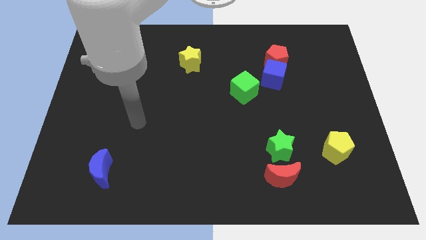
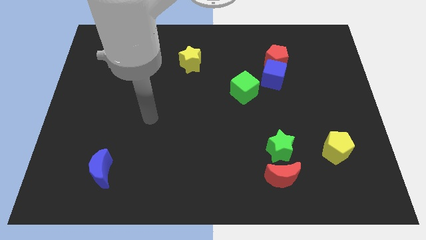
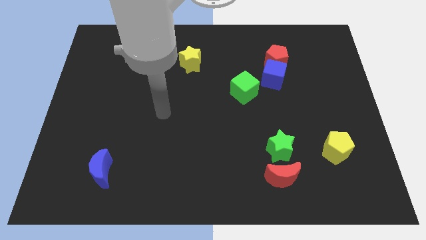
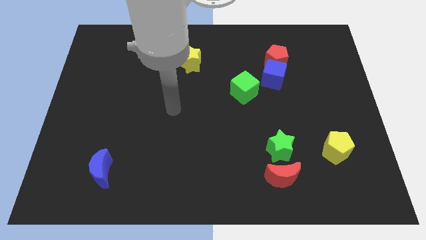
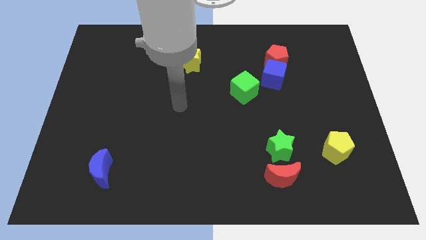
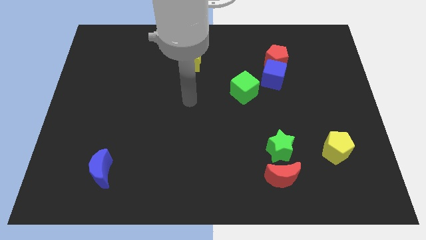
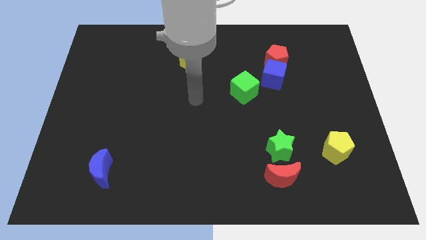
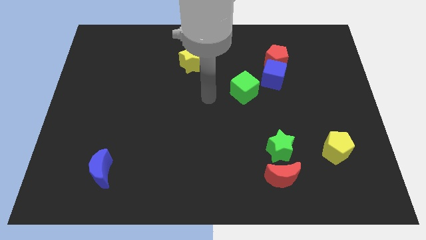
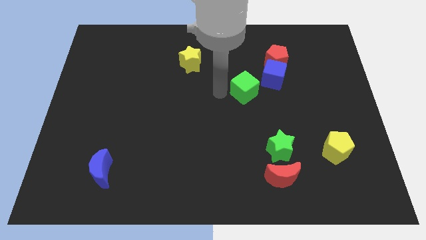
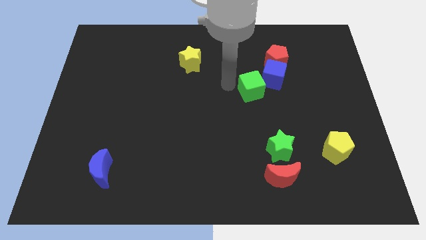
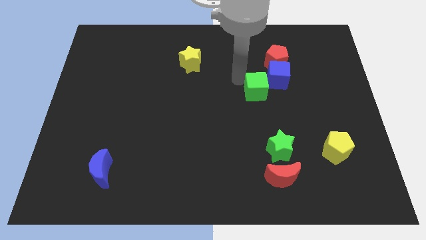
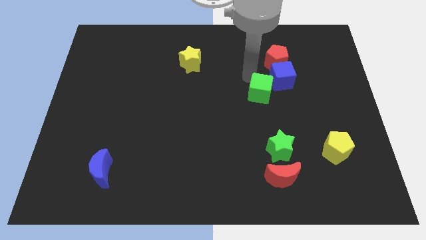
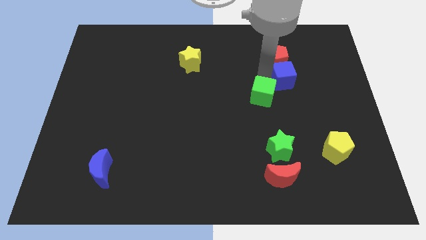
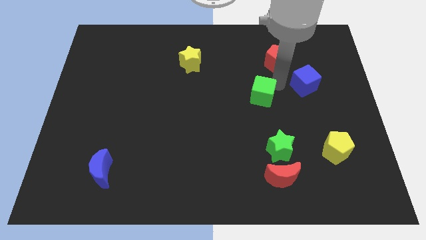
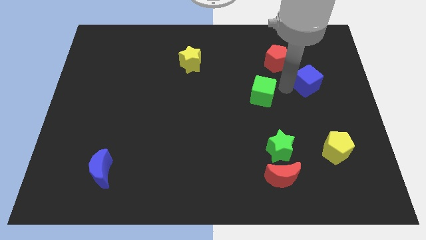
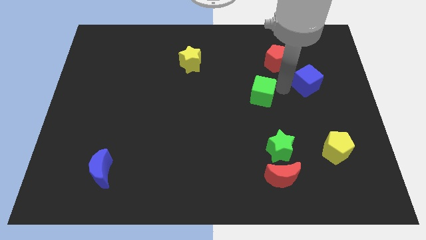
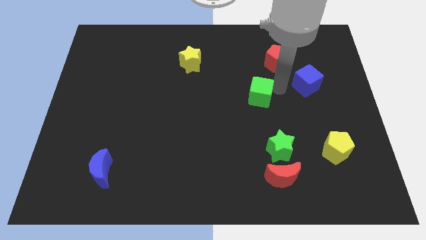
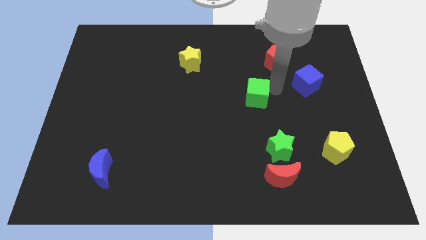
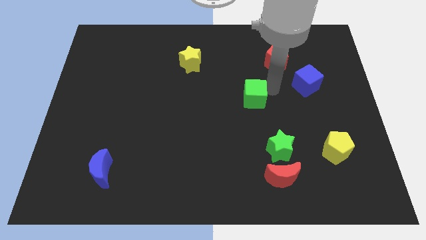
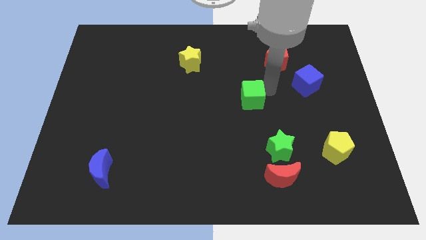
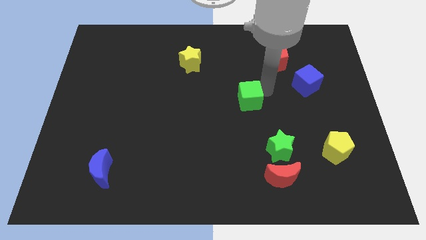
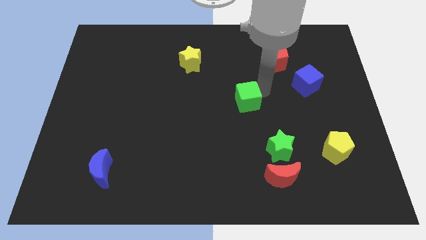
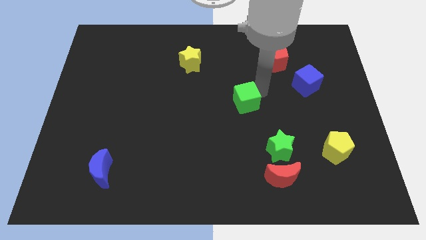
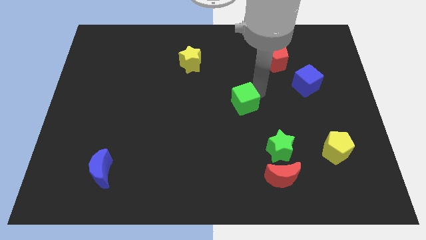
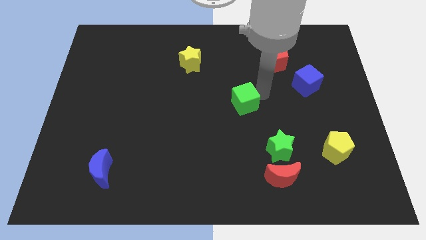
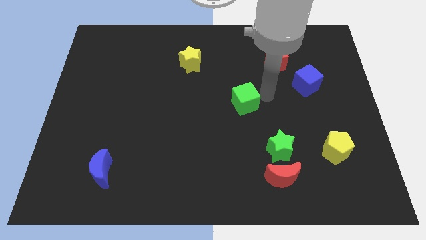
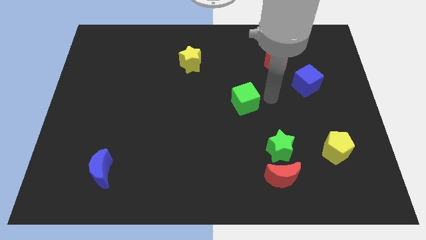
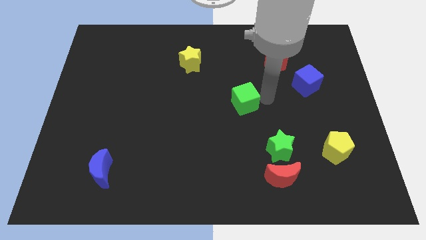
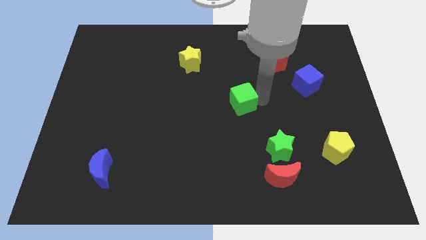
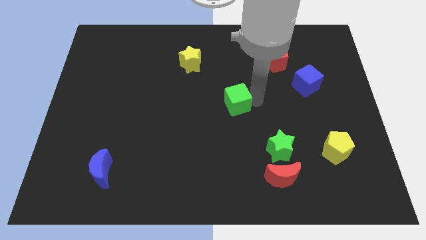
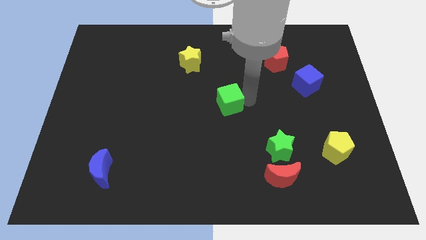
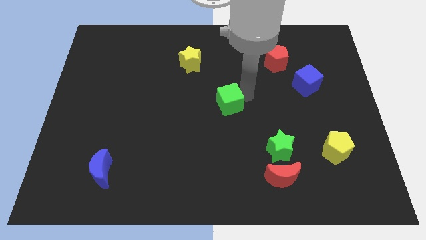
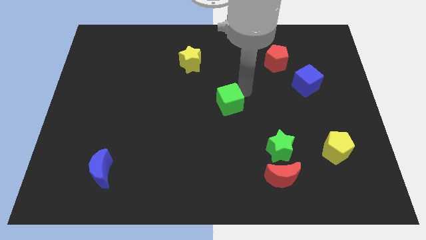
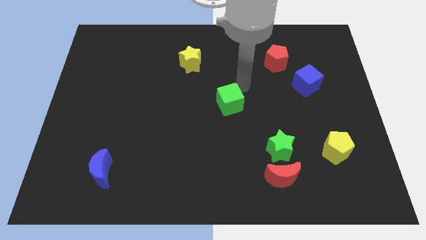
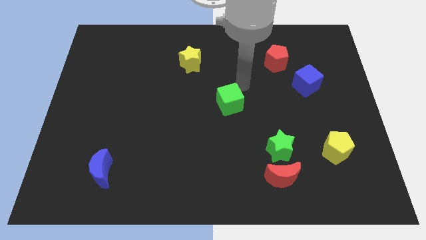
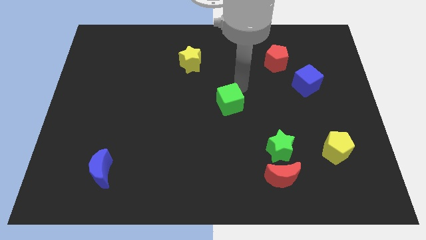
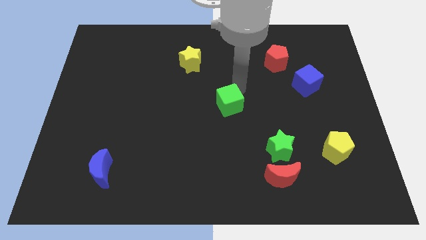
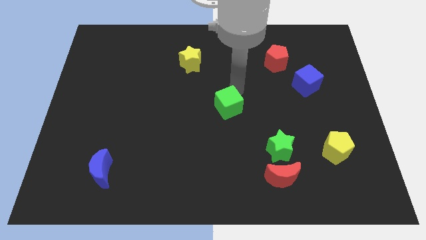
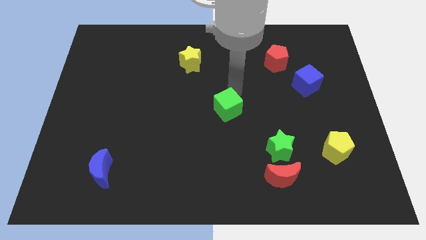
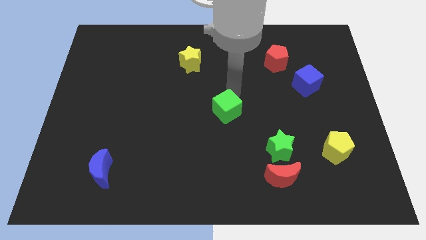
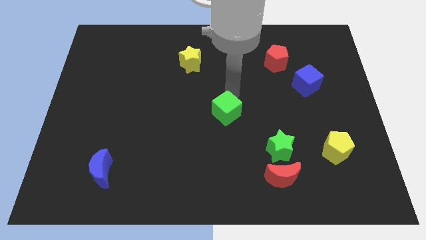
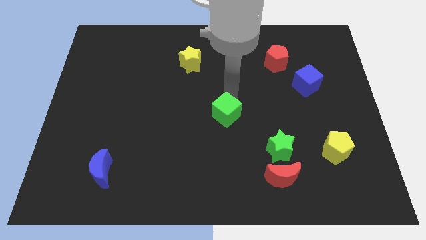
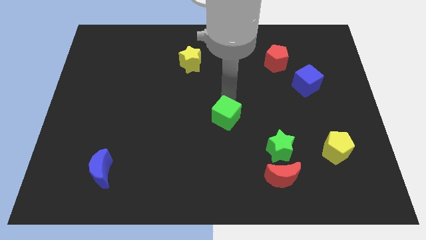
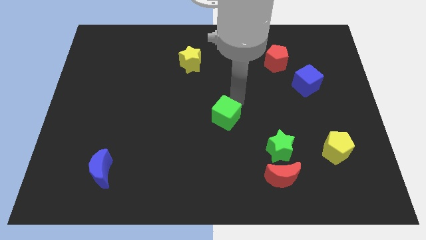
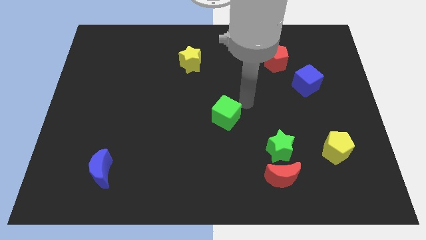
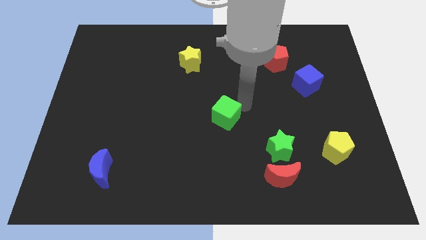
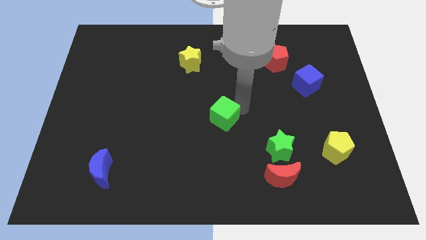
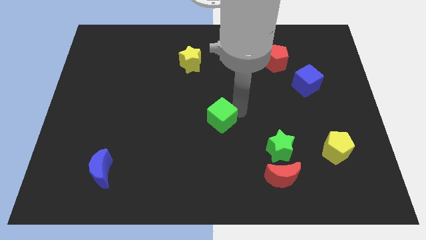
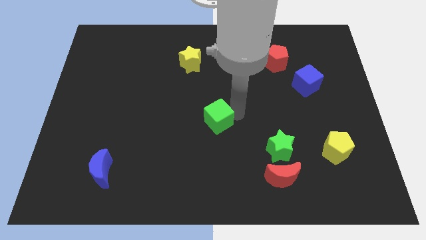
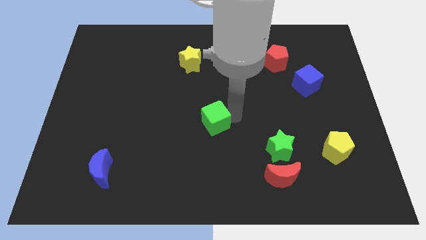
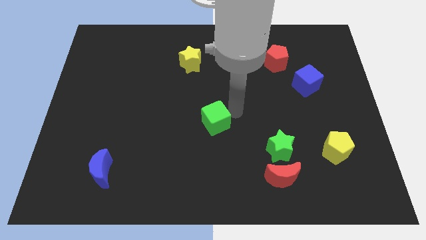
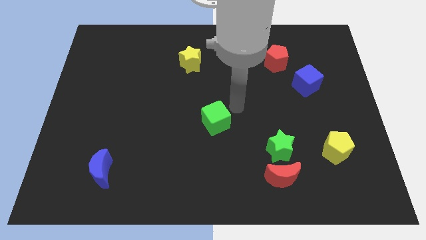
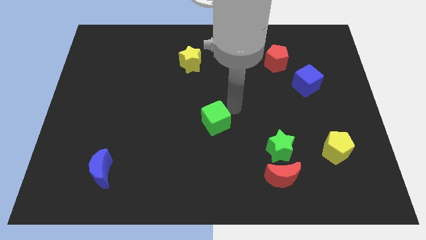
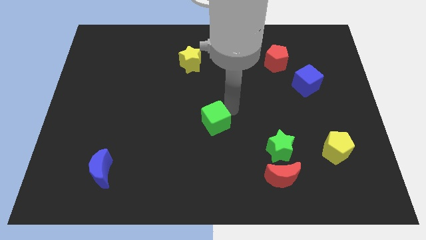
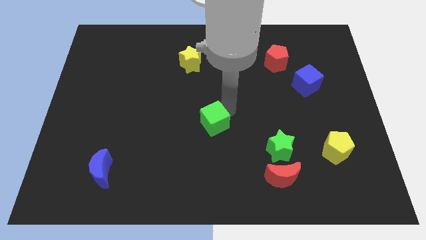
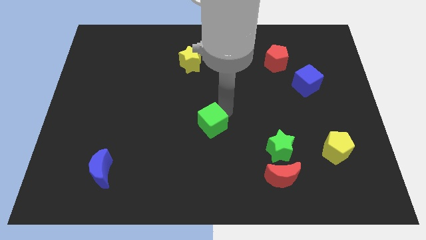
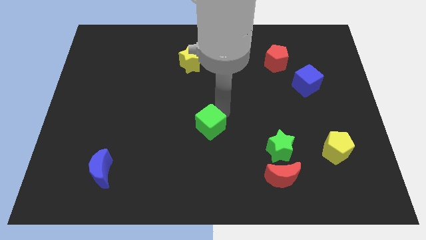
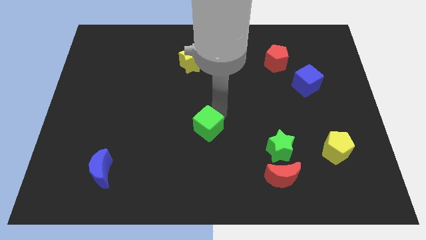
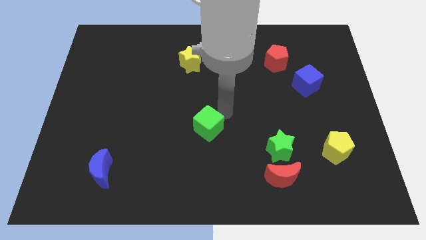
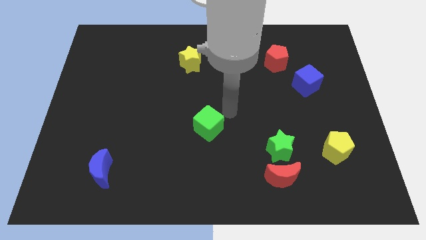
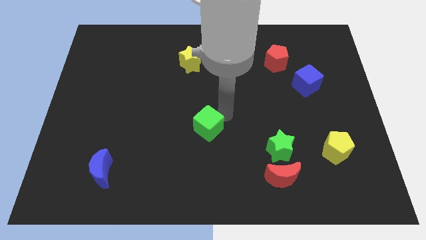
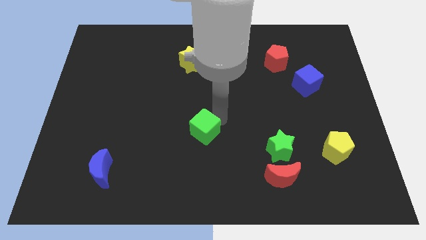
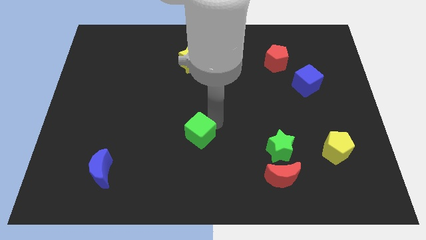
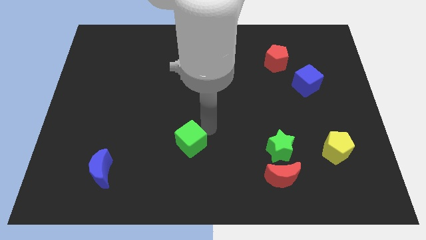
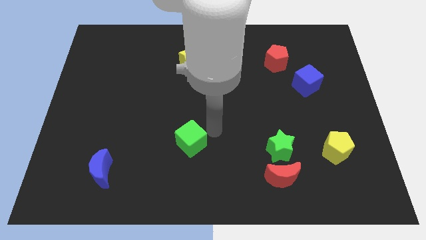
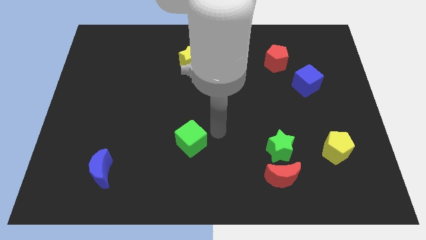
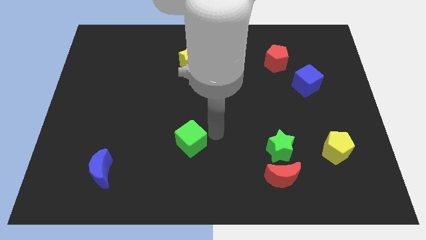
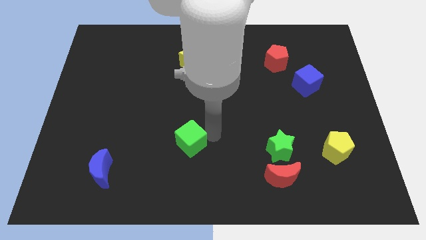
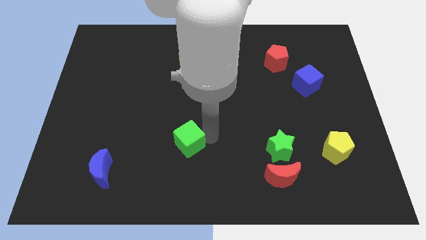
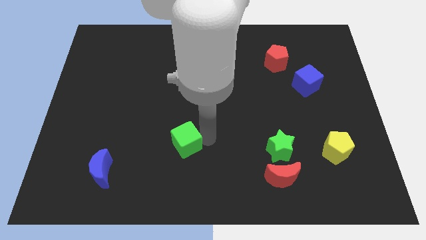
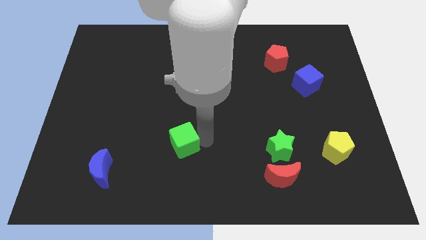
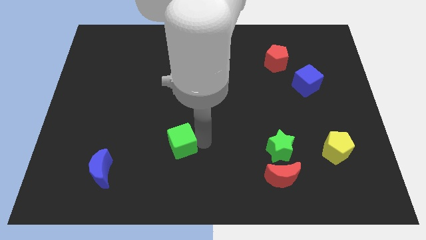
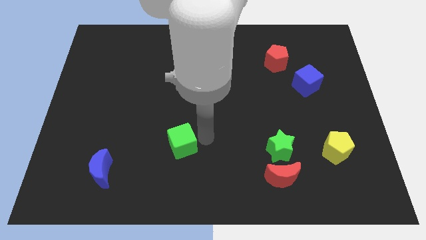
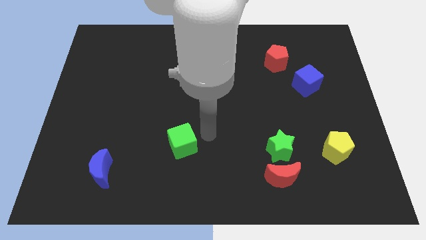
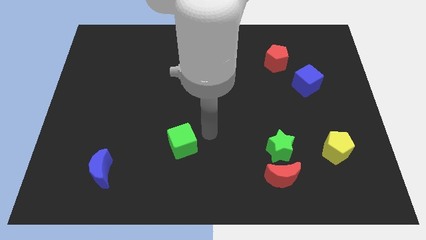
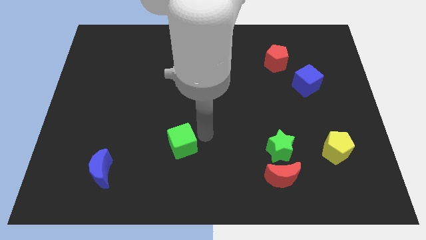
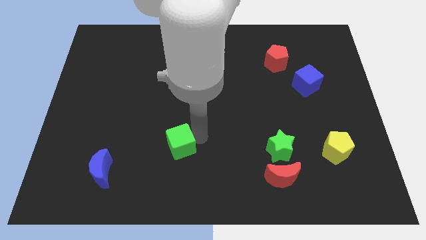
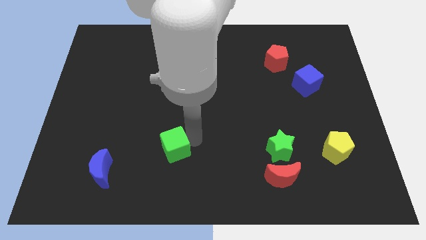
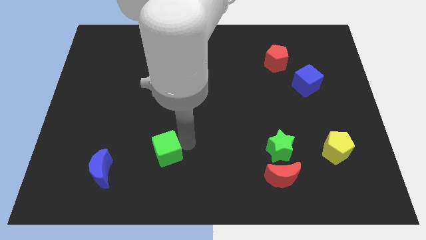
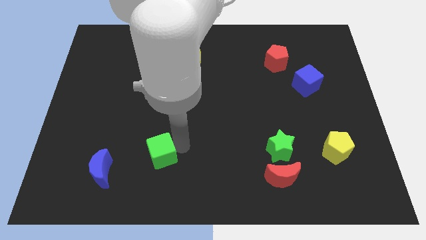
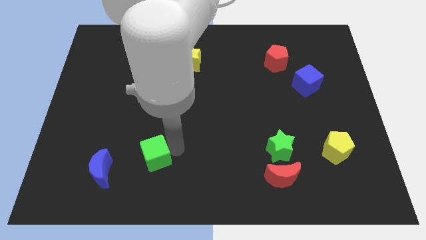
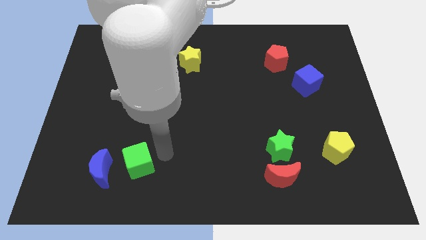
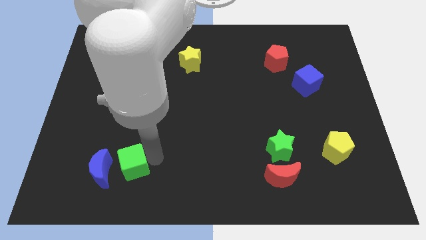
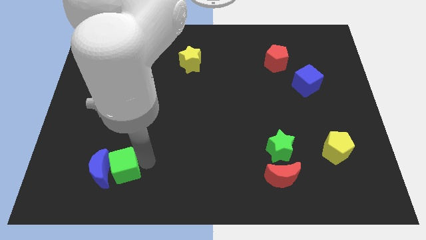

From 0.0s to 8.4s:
move the green cube next to the blue moon
